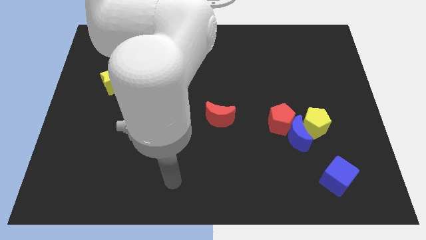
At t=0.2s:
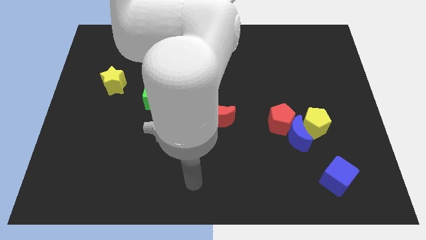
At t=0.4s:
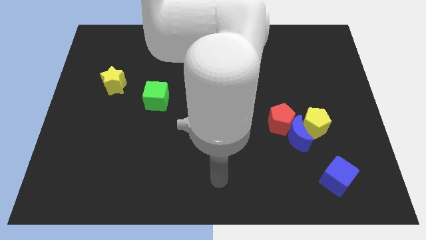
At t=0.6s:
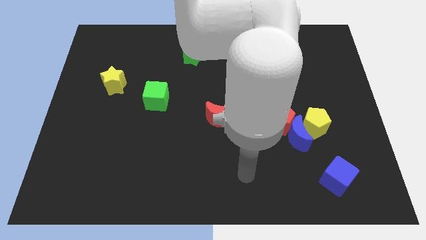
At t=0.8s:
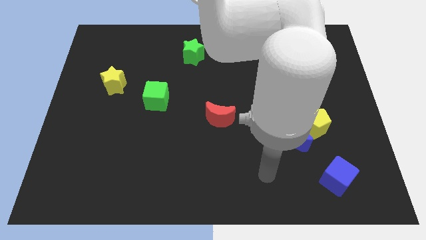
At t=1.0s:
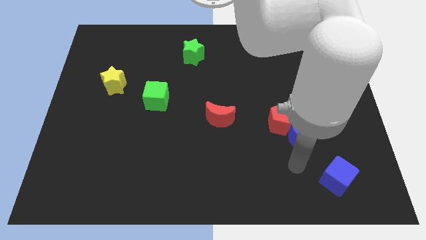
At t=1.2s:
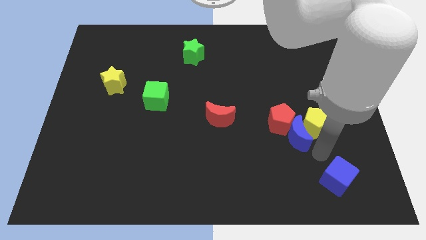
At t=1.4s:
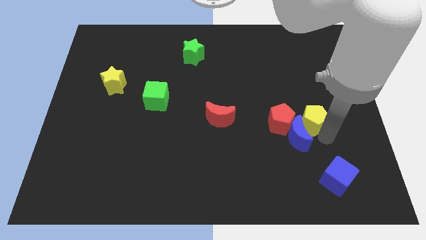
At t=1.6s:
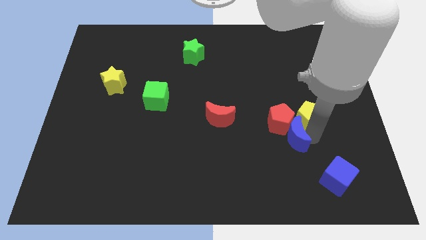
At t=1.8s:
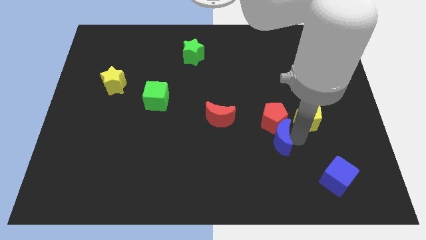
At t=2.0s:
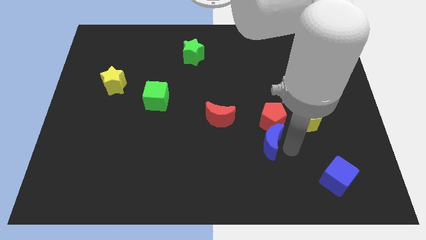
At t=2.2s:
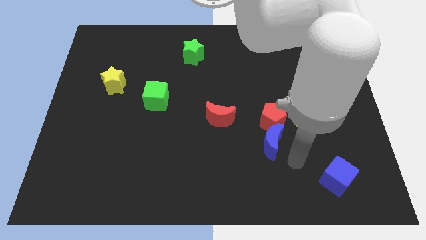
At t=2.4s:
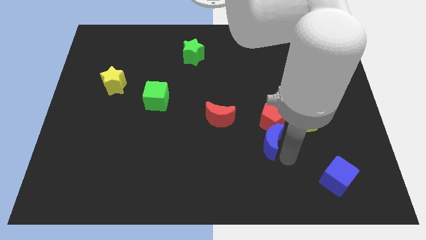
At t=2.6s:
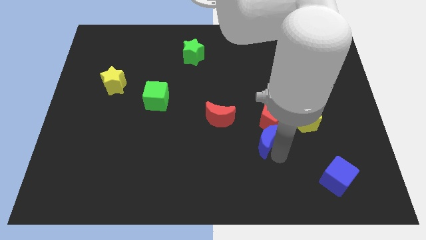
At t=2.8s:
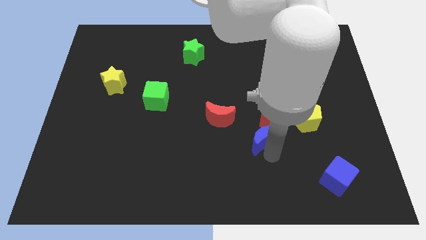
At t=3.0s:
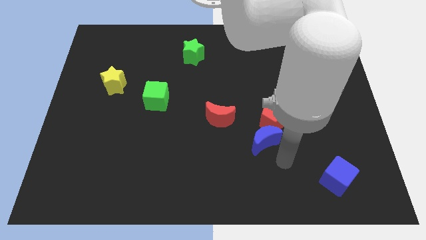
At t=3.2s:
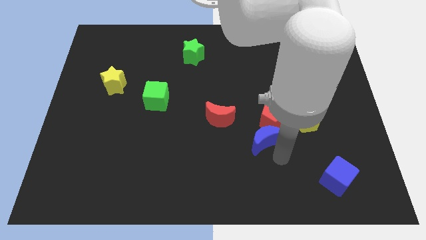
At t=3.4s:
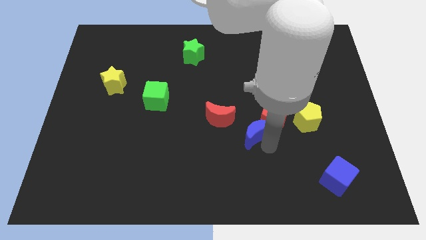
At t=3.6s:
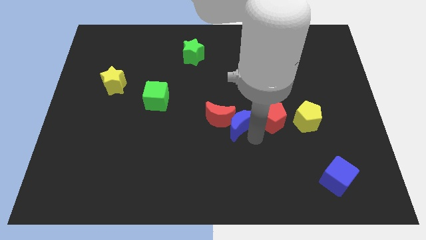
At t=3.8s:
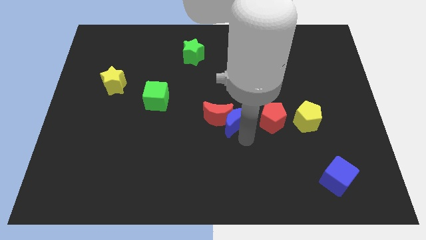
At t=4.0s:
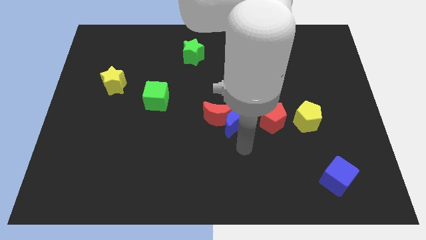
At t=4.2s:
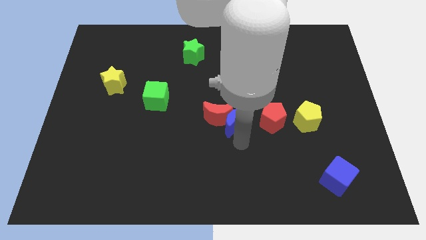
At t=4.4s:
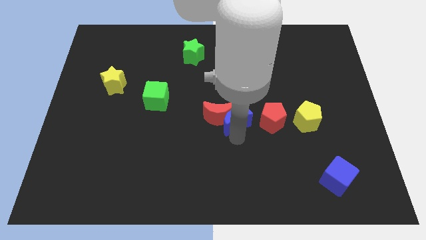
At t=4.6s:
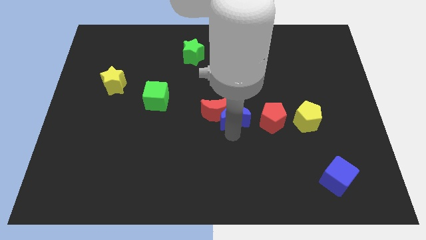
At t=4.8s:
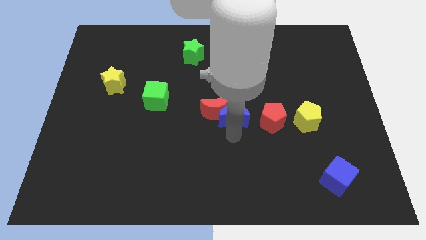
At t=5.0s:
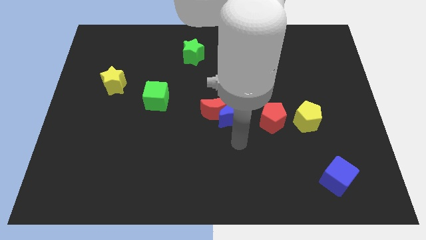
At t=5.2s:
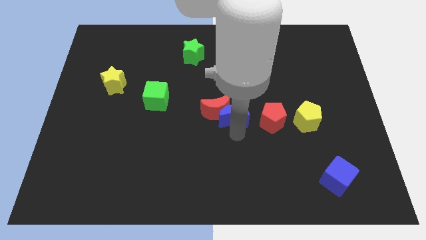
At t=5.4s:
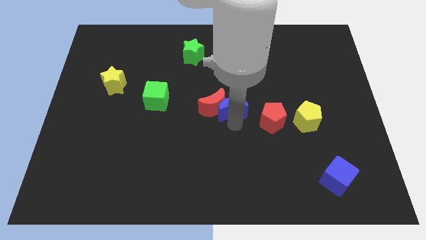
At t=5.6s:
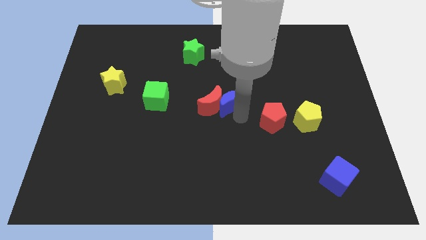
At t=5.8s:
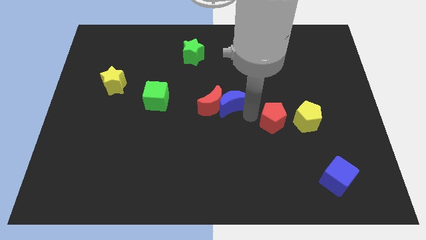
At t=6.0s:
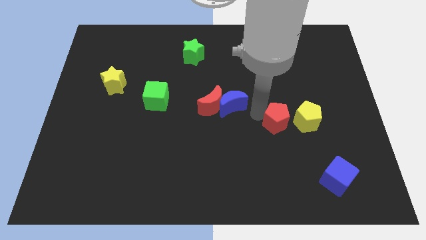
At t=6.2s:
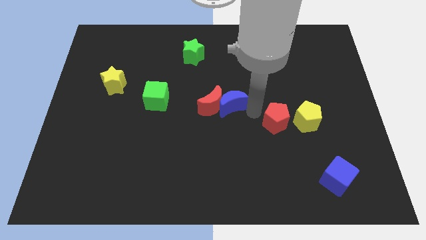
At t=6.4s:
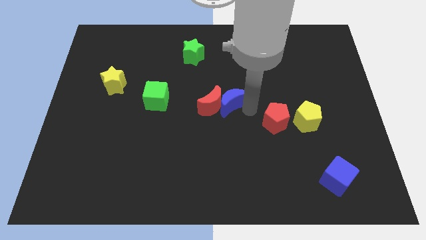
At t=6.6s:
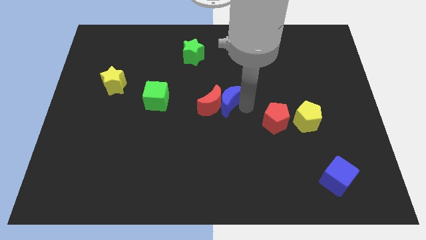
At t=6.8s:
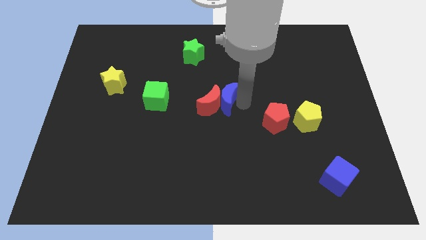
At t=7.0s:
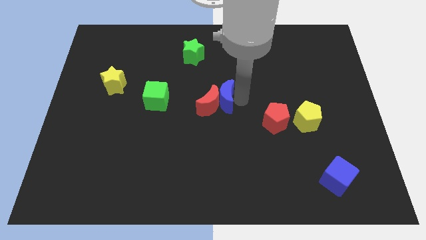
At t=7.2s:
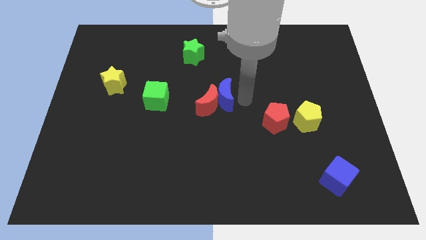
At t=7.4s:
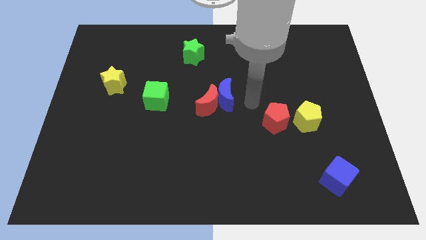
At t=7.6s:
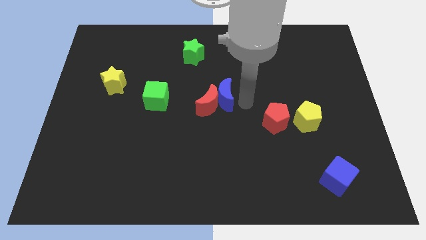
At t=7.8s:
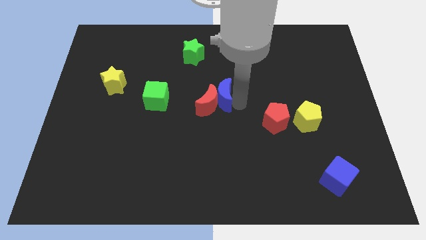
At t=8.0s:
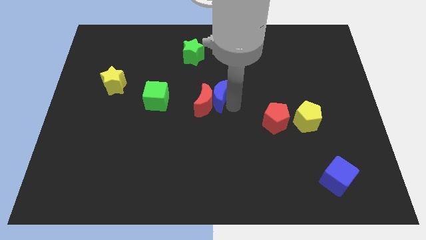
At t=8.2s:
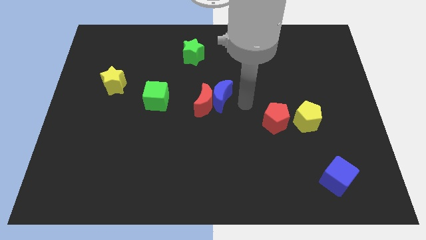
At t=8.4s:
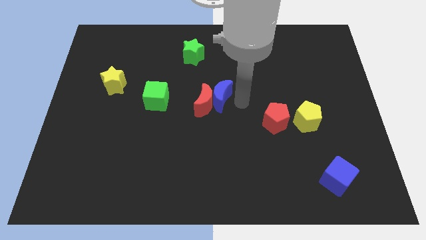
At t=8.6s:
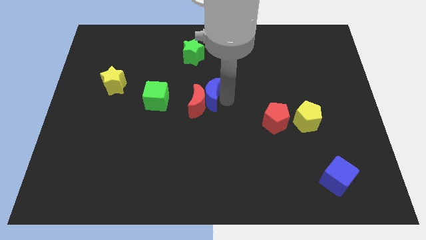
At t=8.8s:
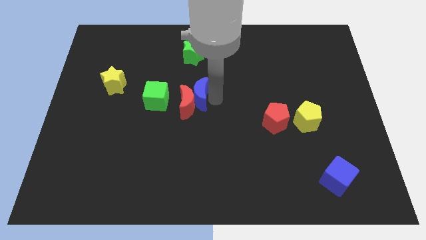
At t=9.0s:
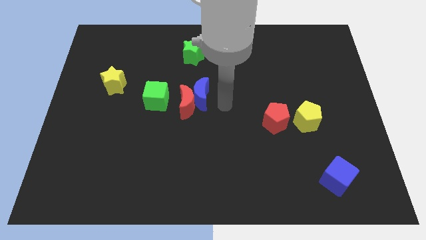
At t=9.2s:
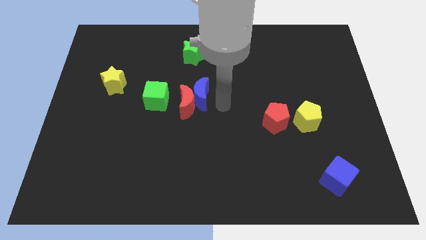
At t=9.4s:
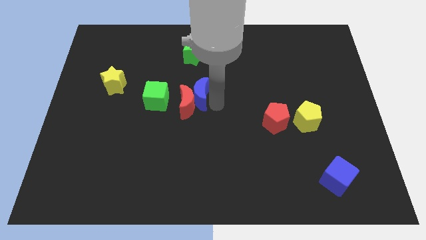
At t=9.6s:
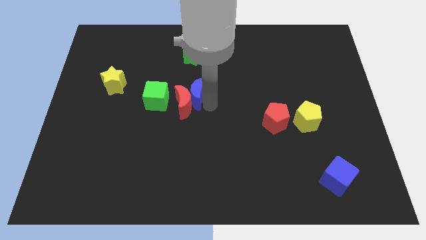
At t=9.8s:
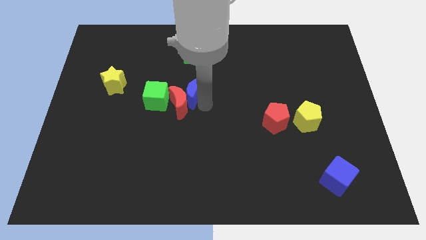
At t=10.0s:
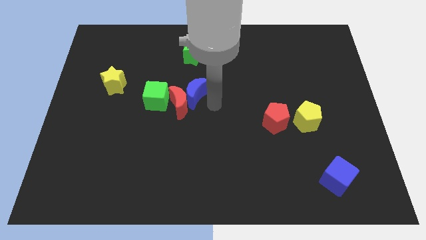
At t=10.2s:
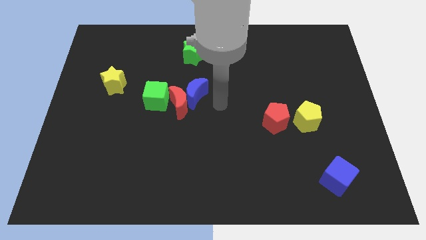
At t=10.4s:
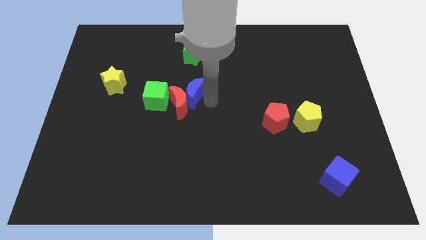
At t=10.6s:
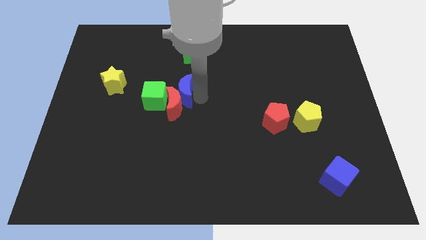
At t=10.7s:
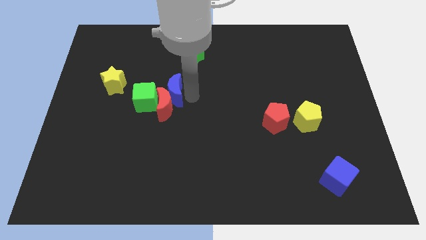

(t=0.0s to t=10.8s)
slide the blue moon to the right side of the yellow star

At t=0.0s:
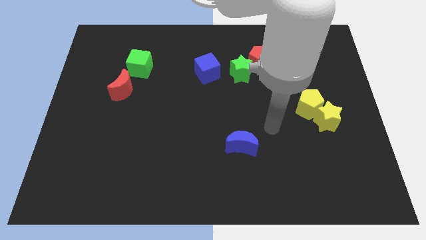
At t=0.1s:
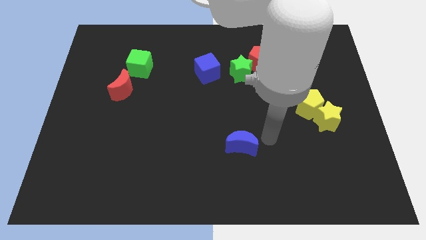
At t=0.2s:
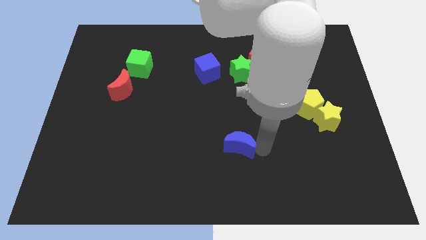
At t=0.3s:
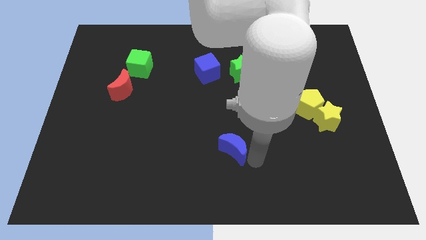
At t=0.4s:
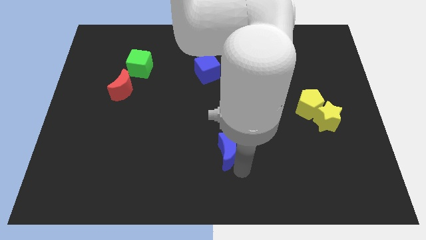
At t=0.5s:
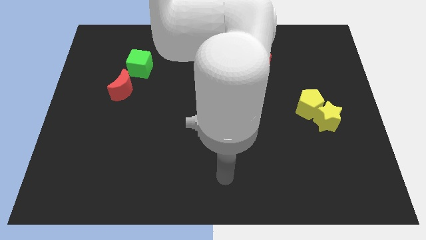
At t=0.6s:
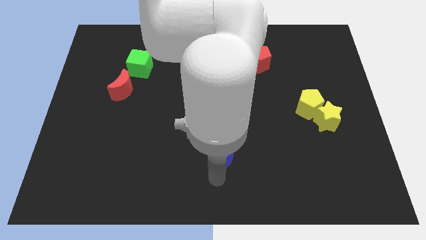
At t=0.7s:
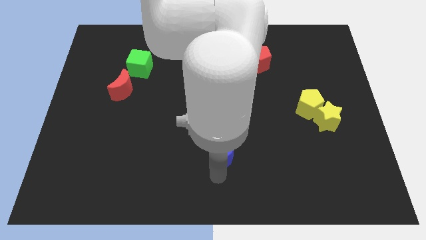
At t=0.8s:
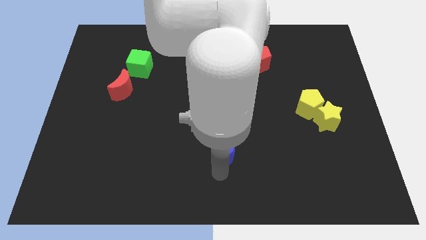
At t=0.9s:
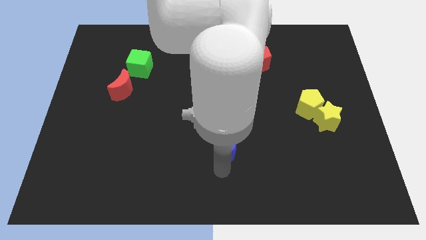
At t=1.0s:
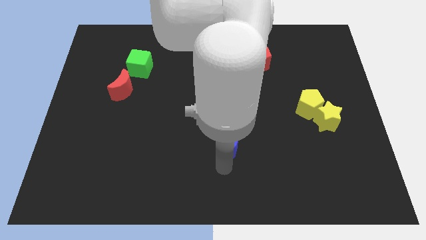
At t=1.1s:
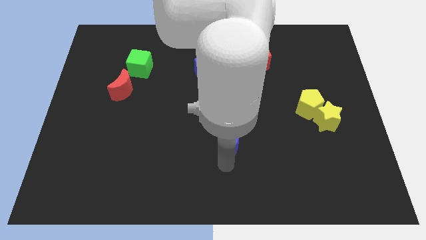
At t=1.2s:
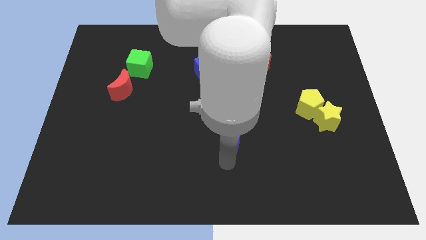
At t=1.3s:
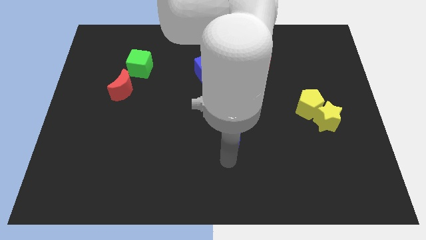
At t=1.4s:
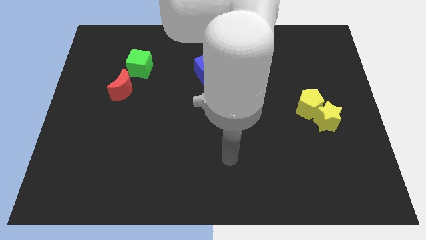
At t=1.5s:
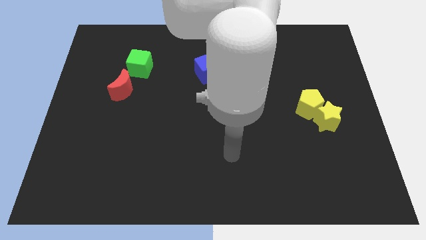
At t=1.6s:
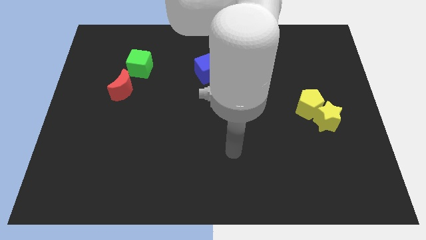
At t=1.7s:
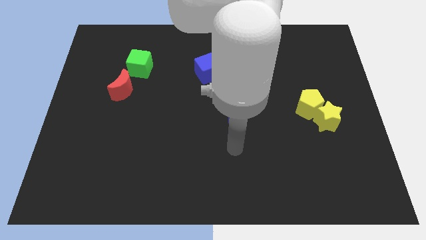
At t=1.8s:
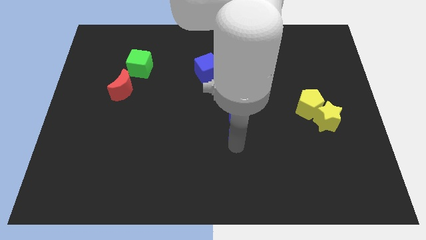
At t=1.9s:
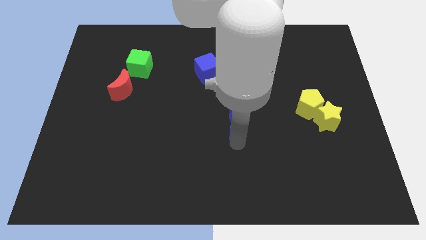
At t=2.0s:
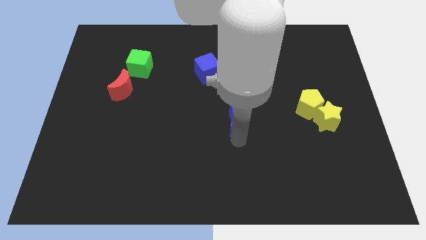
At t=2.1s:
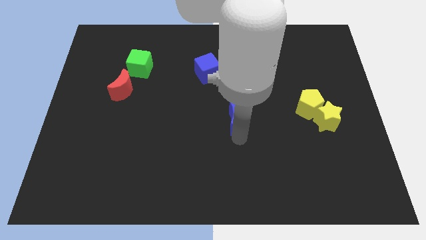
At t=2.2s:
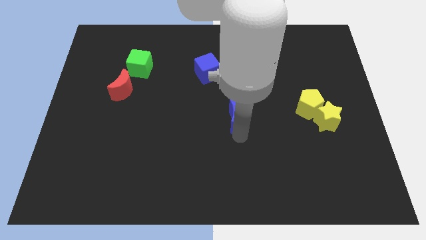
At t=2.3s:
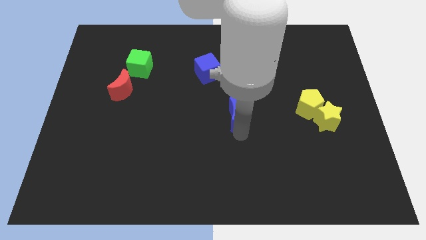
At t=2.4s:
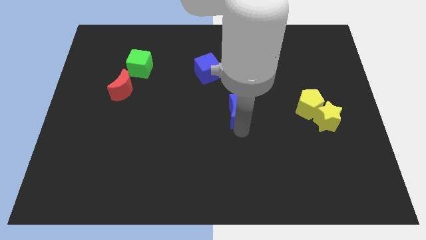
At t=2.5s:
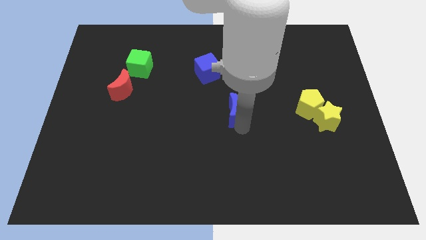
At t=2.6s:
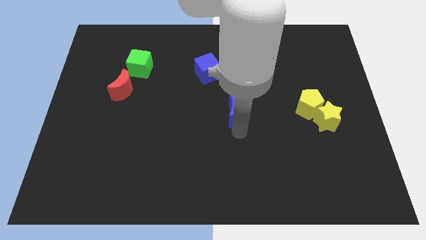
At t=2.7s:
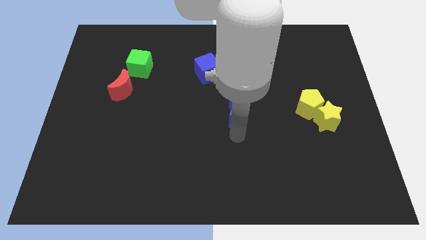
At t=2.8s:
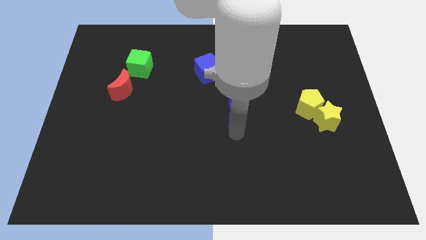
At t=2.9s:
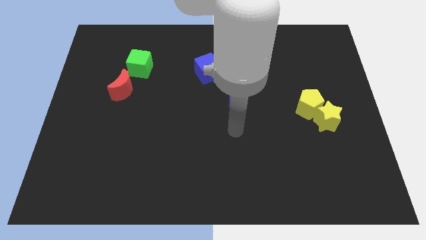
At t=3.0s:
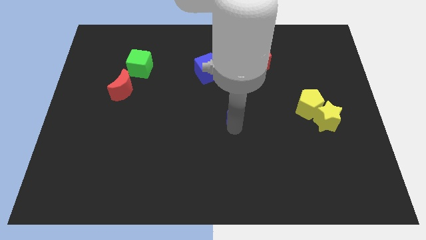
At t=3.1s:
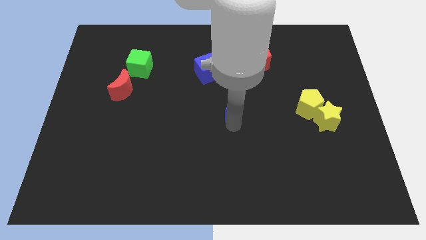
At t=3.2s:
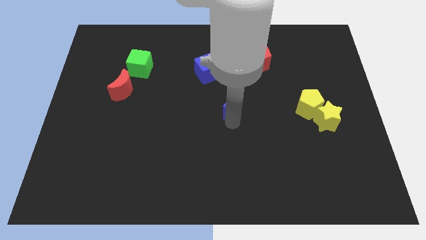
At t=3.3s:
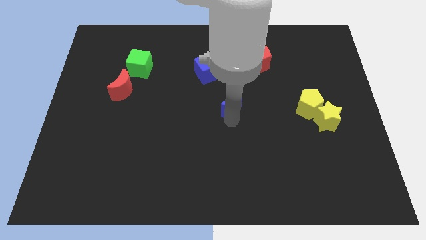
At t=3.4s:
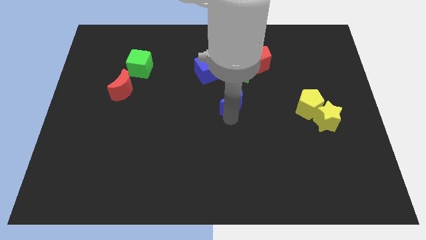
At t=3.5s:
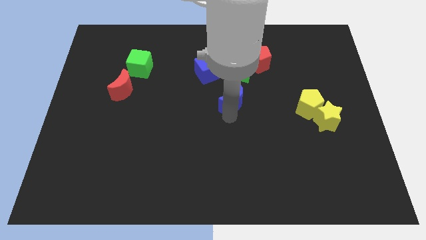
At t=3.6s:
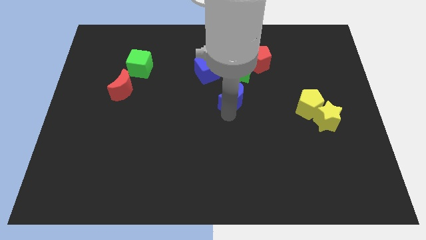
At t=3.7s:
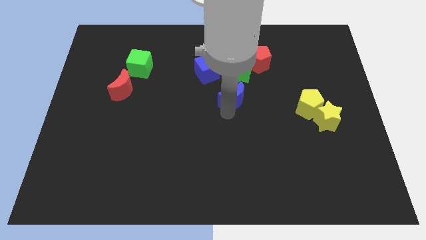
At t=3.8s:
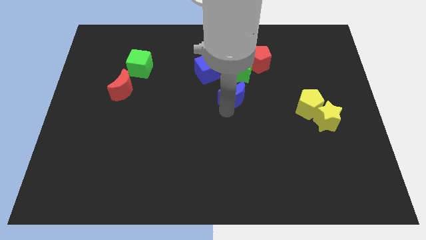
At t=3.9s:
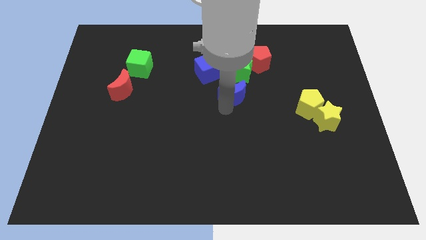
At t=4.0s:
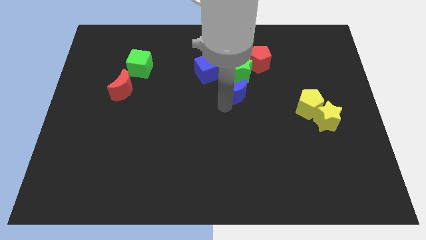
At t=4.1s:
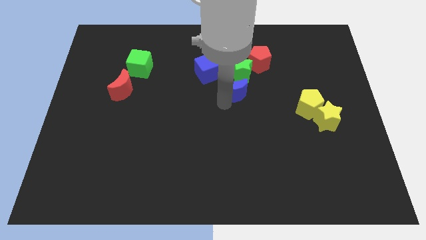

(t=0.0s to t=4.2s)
slide the blue moon diagonally down and to the left of the red pentagon
